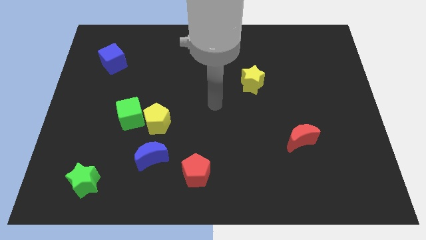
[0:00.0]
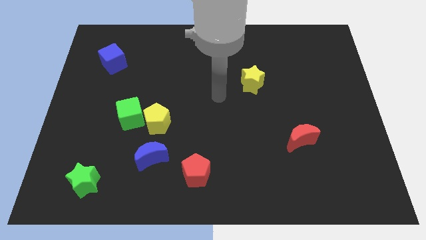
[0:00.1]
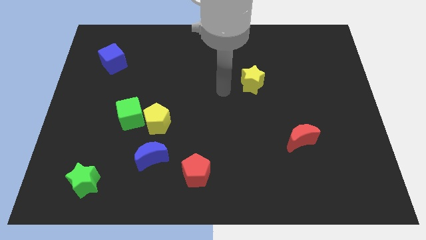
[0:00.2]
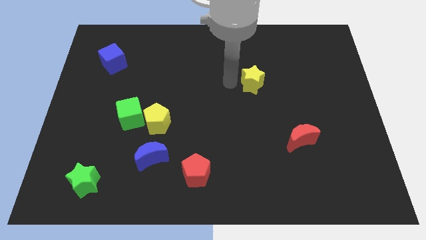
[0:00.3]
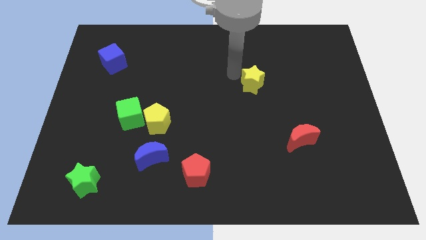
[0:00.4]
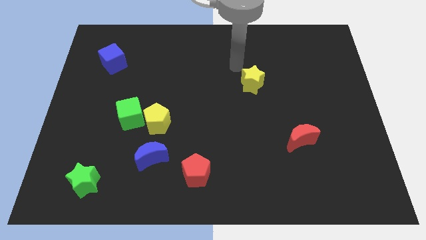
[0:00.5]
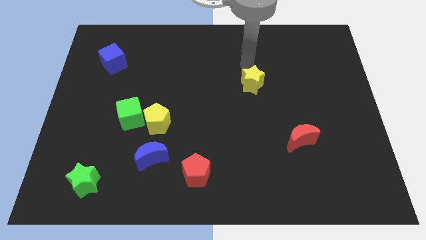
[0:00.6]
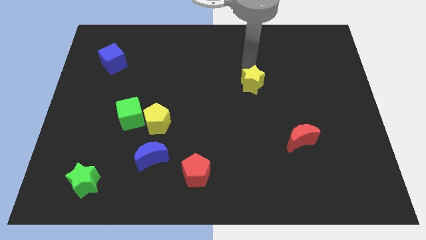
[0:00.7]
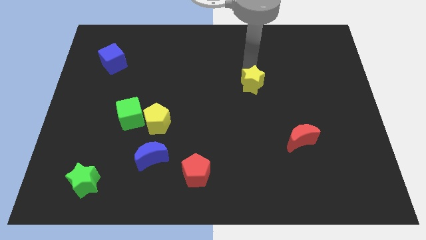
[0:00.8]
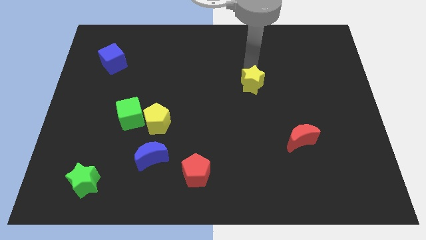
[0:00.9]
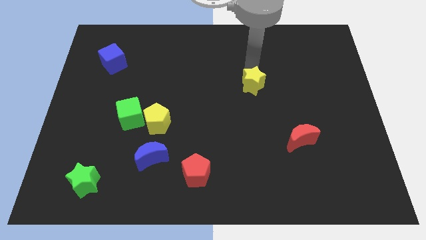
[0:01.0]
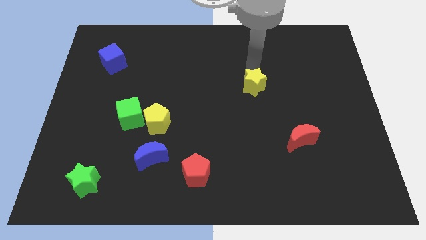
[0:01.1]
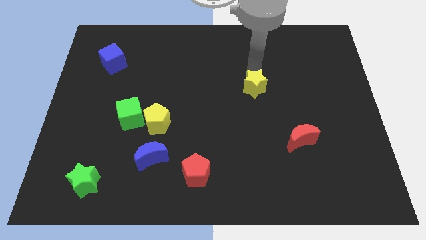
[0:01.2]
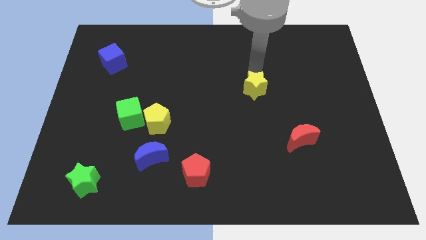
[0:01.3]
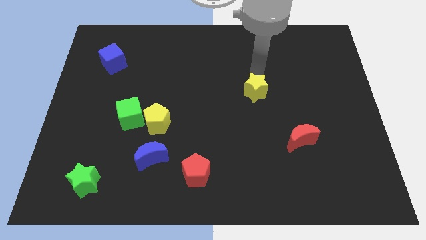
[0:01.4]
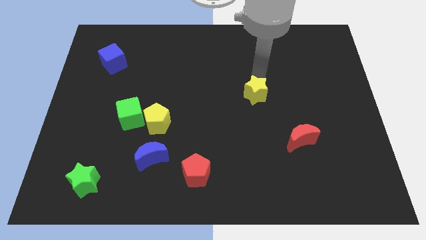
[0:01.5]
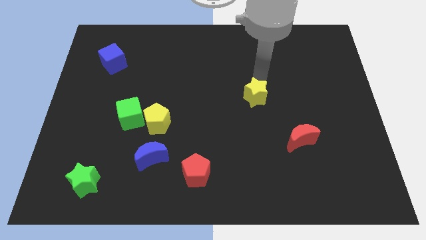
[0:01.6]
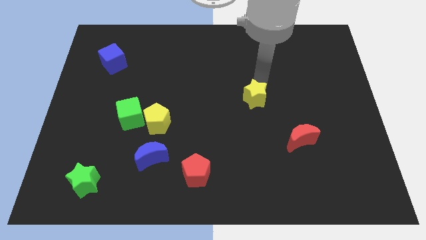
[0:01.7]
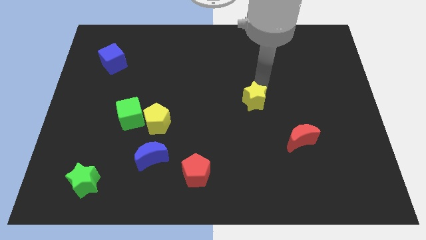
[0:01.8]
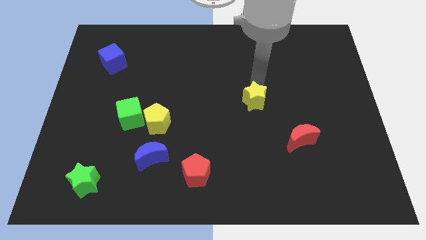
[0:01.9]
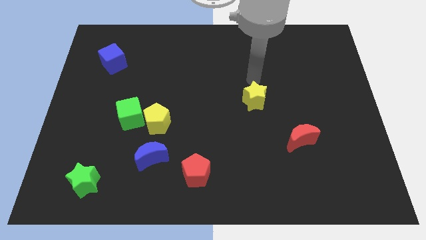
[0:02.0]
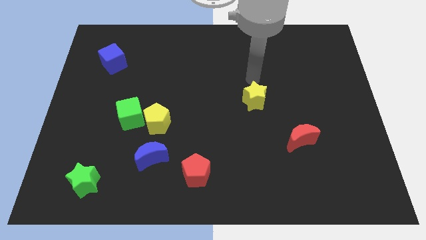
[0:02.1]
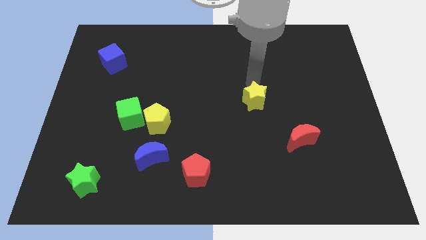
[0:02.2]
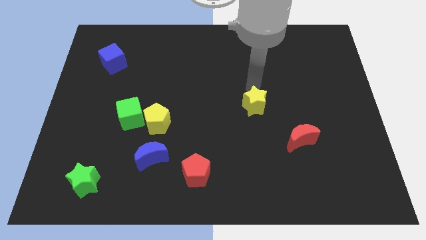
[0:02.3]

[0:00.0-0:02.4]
slightly move the yellow star downwards

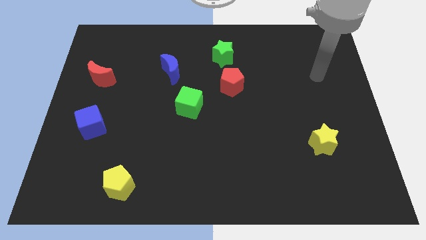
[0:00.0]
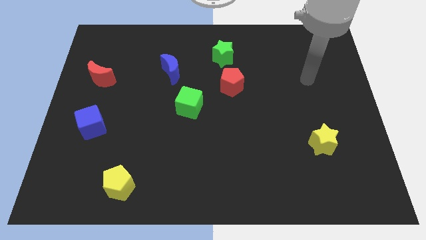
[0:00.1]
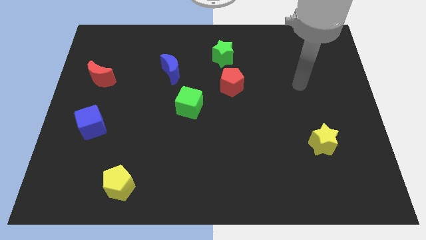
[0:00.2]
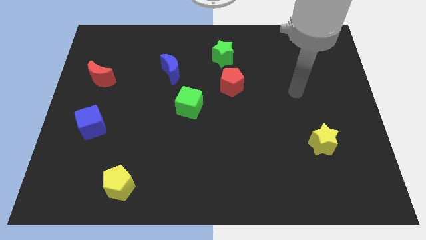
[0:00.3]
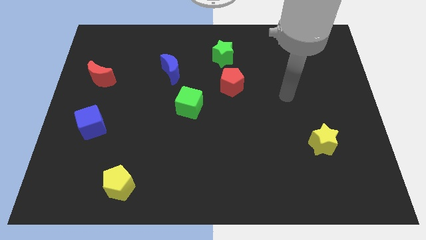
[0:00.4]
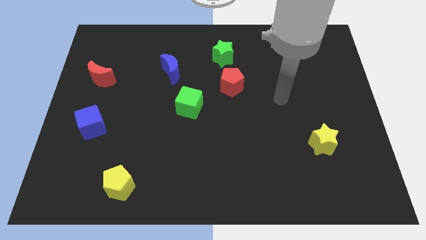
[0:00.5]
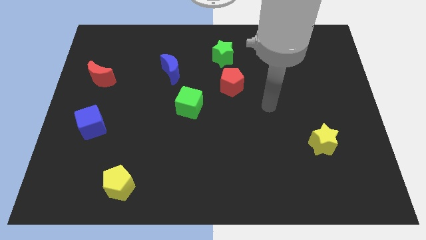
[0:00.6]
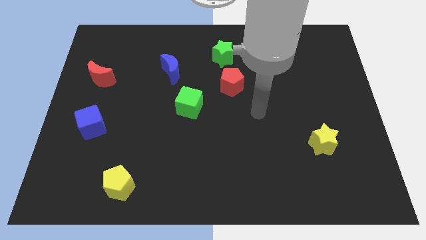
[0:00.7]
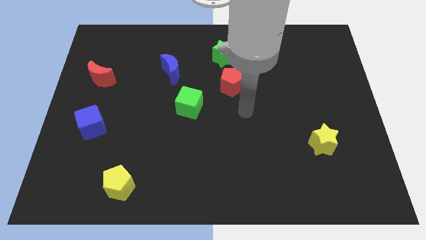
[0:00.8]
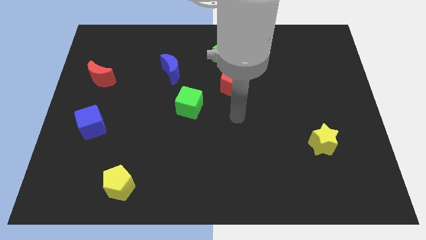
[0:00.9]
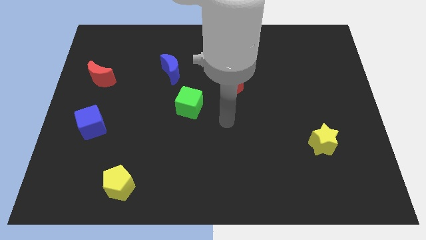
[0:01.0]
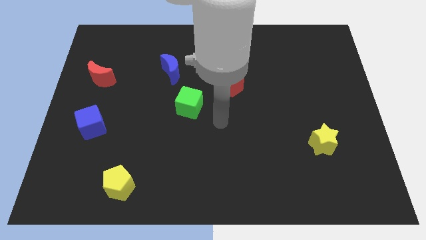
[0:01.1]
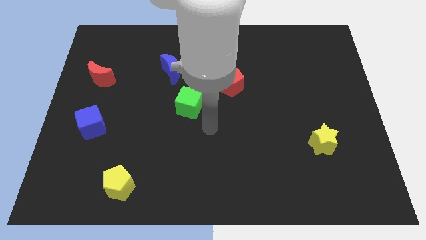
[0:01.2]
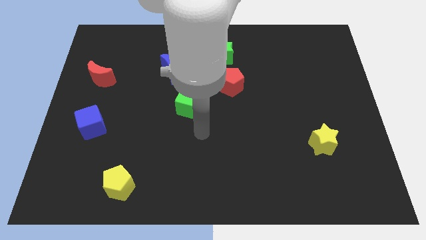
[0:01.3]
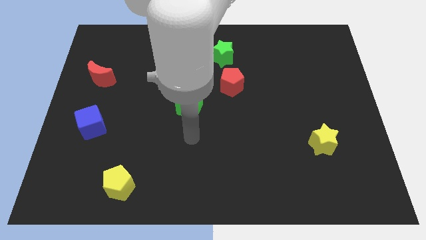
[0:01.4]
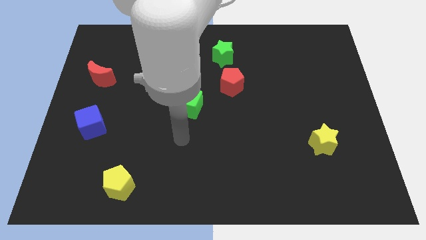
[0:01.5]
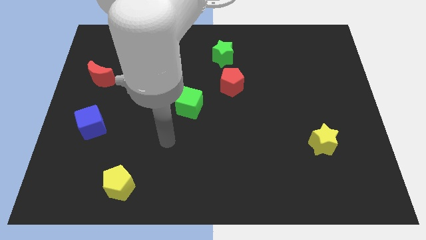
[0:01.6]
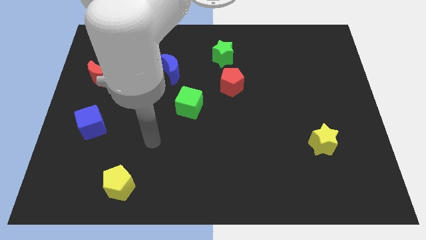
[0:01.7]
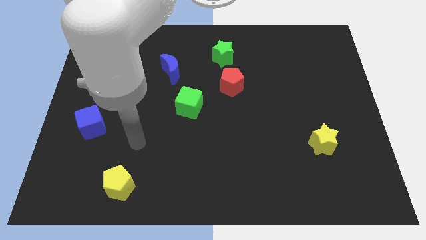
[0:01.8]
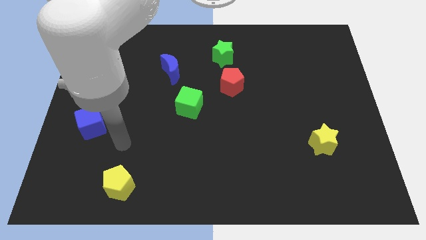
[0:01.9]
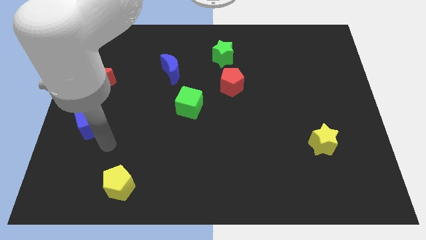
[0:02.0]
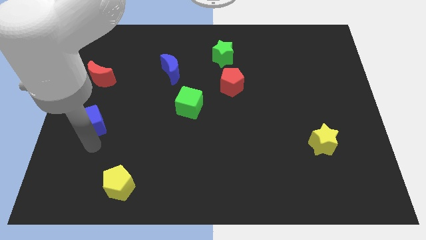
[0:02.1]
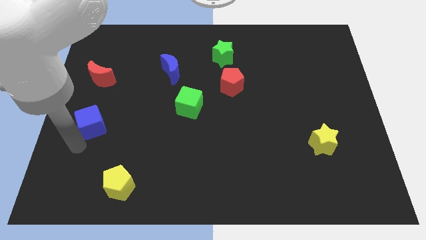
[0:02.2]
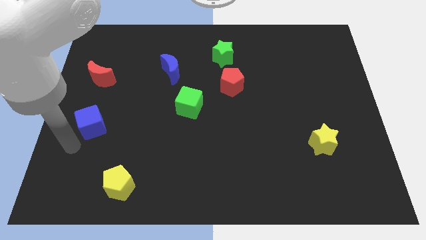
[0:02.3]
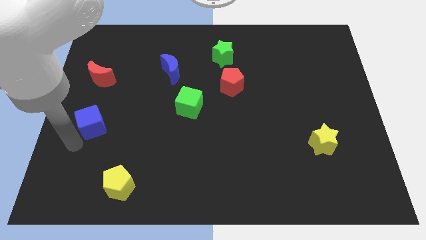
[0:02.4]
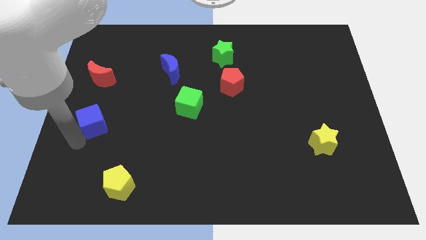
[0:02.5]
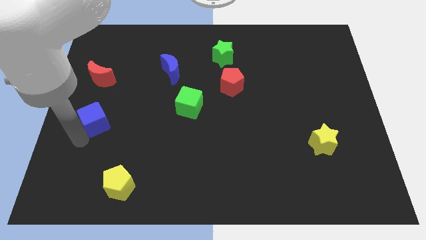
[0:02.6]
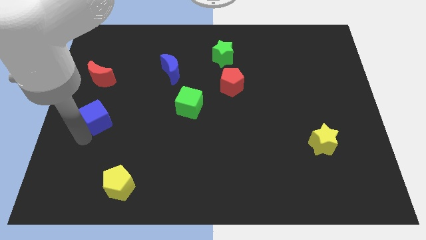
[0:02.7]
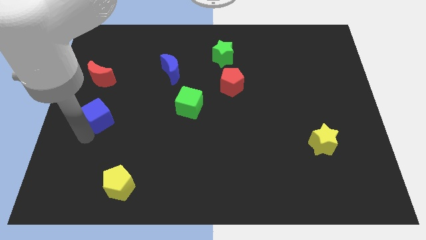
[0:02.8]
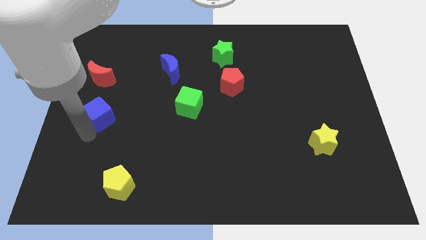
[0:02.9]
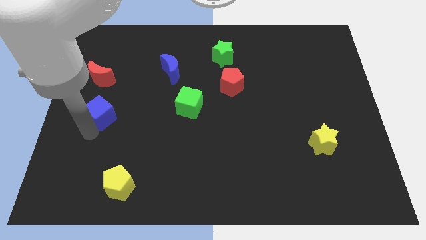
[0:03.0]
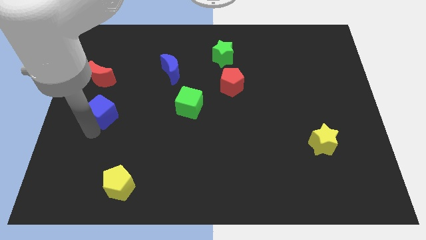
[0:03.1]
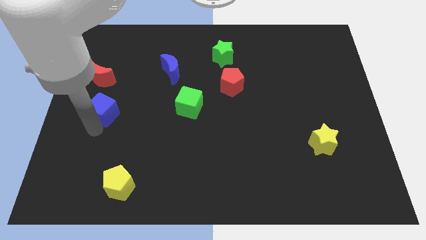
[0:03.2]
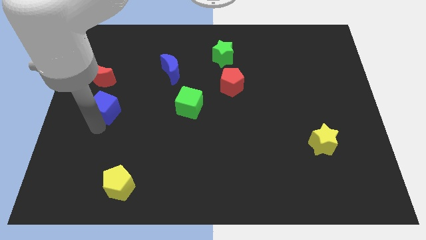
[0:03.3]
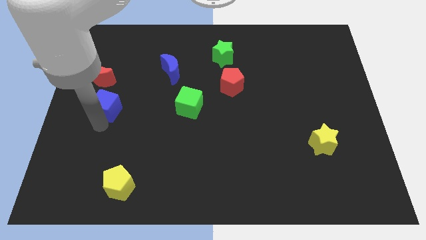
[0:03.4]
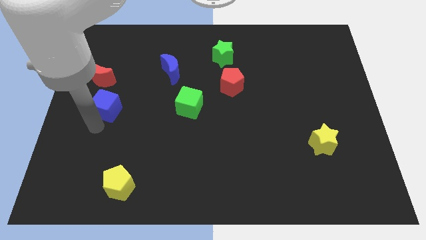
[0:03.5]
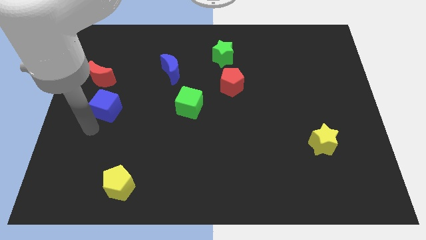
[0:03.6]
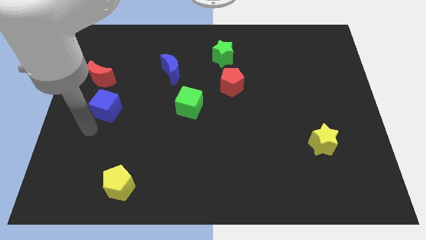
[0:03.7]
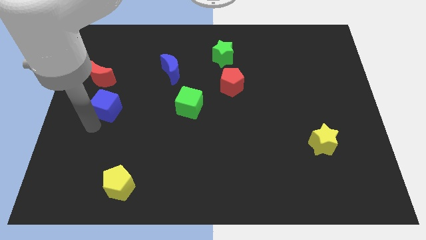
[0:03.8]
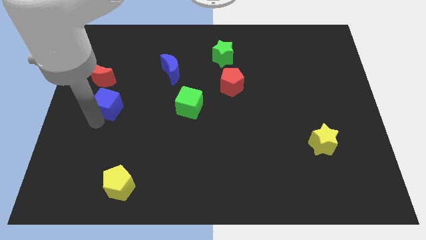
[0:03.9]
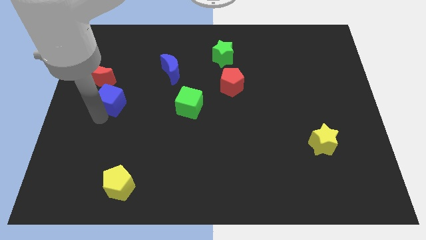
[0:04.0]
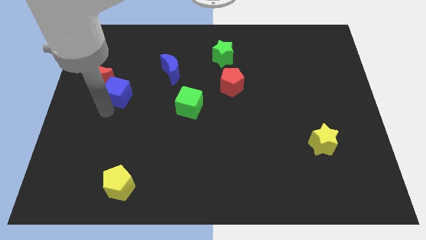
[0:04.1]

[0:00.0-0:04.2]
slide the blue cube a little bit upwards

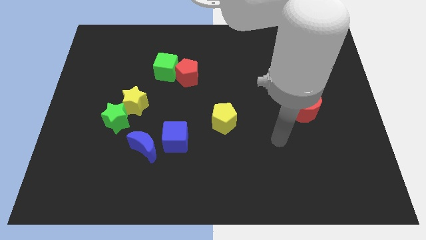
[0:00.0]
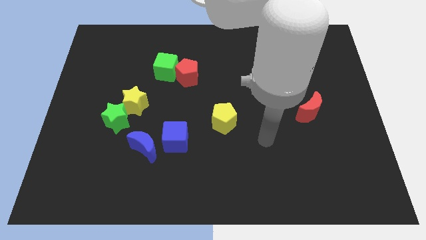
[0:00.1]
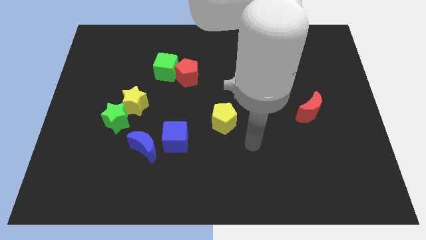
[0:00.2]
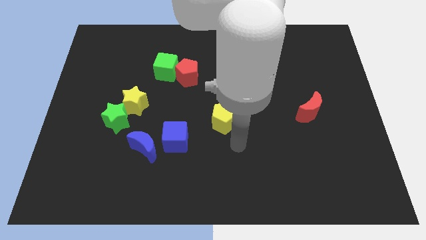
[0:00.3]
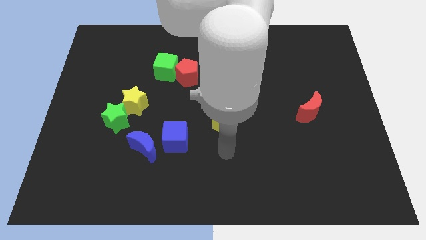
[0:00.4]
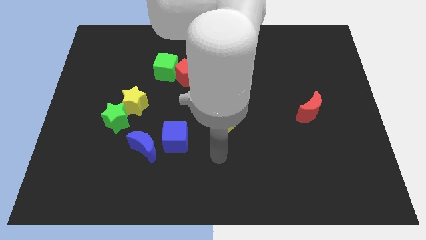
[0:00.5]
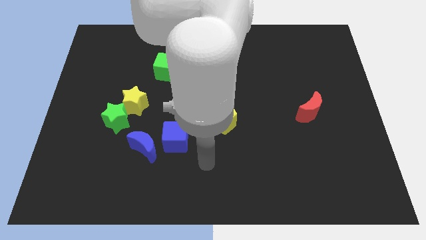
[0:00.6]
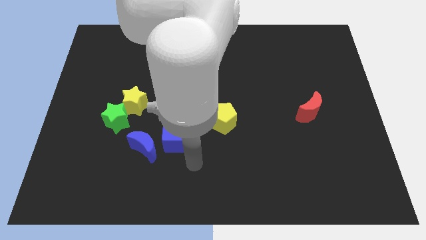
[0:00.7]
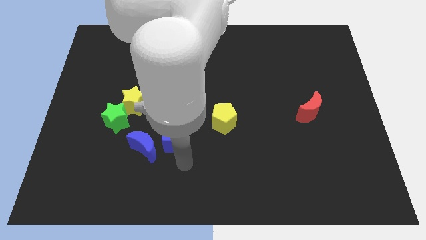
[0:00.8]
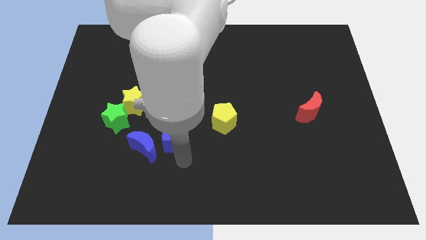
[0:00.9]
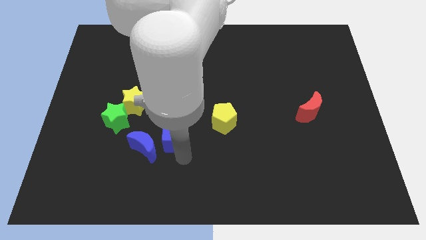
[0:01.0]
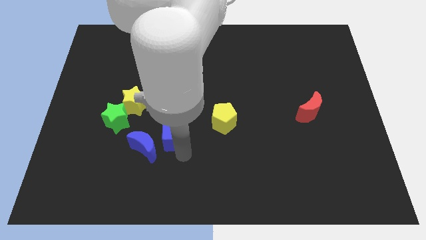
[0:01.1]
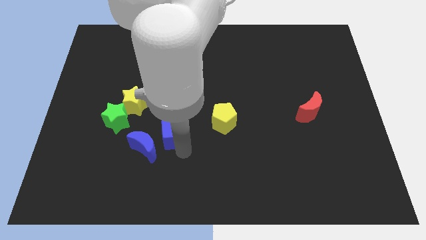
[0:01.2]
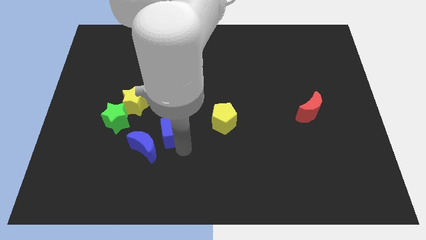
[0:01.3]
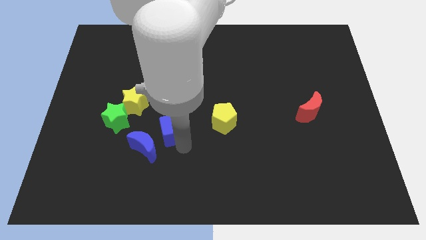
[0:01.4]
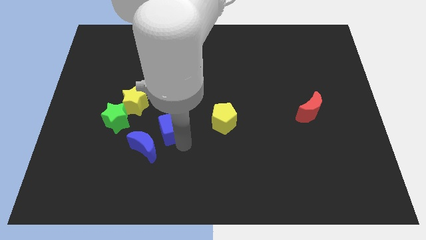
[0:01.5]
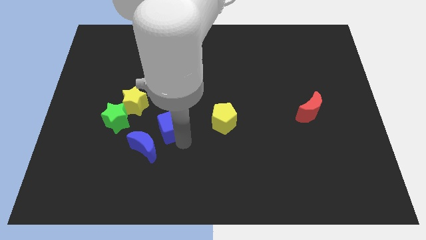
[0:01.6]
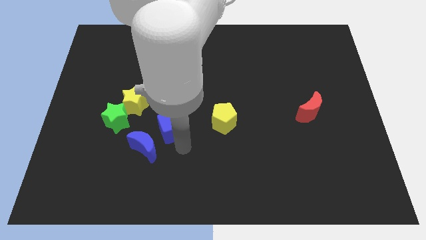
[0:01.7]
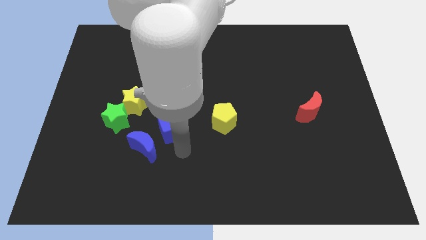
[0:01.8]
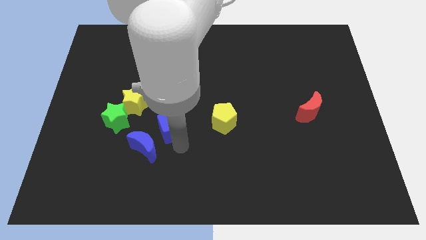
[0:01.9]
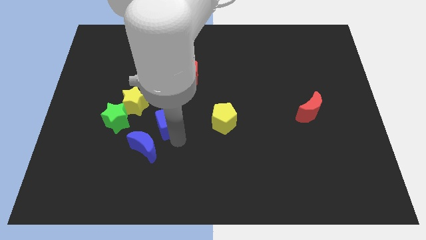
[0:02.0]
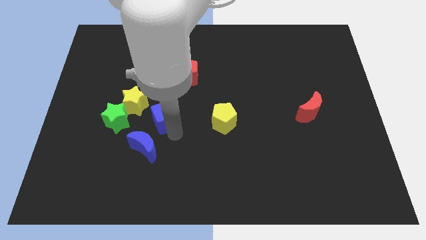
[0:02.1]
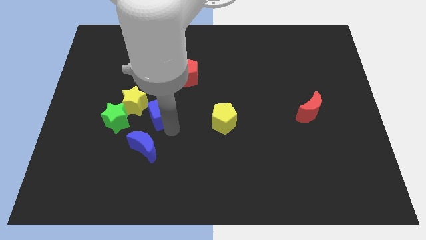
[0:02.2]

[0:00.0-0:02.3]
slide the blue cube somewhat up and to the left
